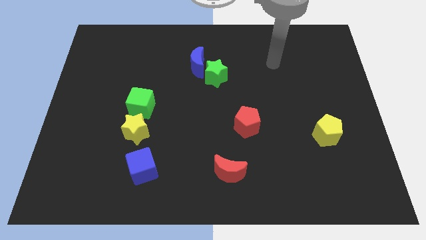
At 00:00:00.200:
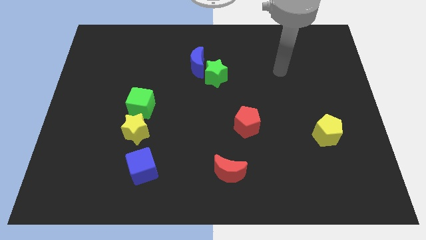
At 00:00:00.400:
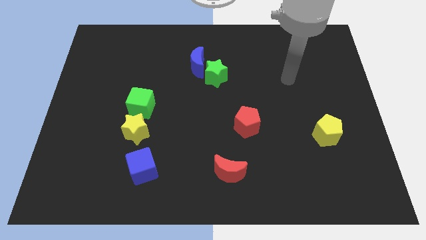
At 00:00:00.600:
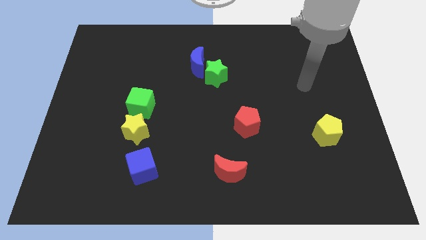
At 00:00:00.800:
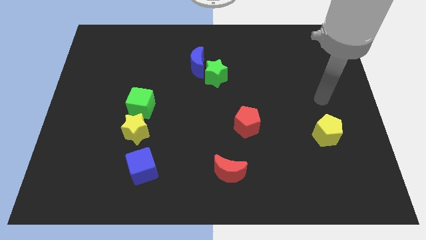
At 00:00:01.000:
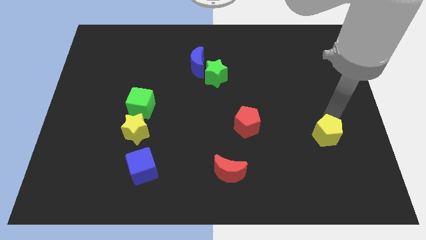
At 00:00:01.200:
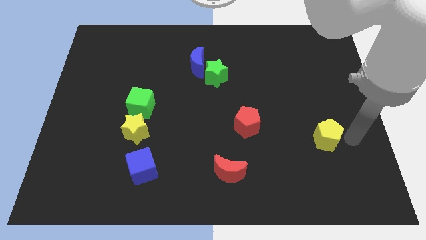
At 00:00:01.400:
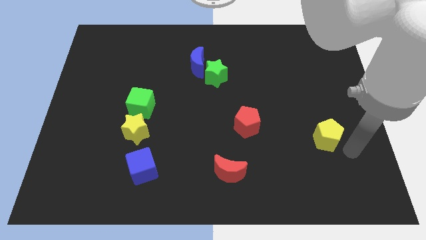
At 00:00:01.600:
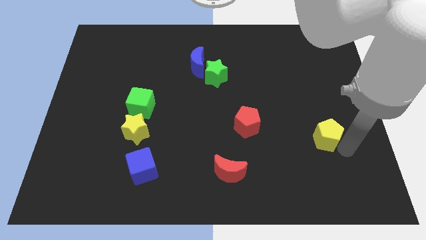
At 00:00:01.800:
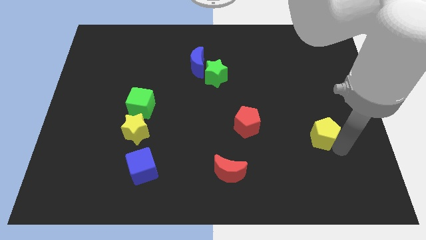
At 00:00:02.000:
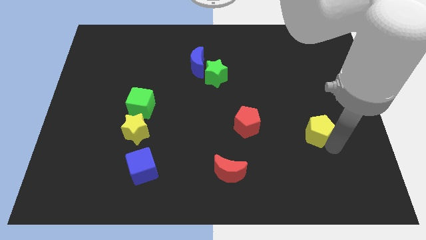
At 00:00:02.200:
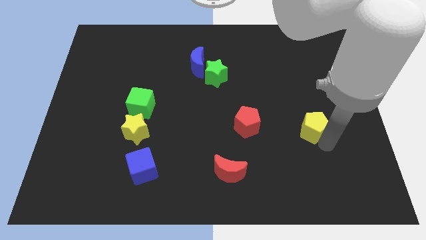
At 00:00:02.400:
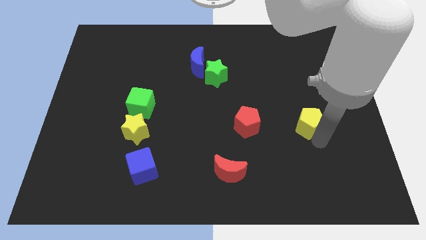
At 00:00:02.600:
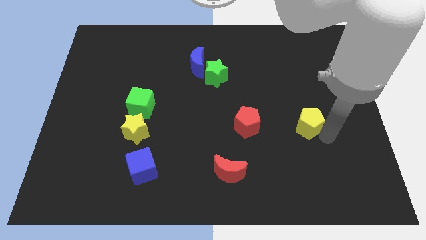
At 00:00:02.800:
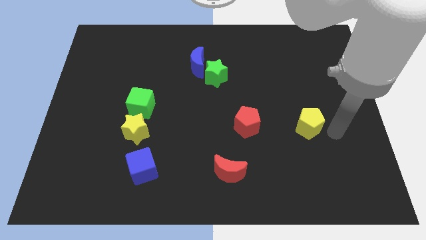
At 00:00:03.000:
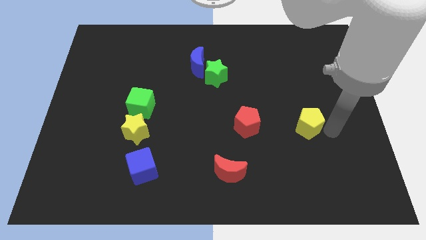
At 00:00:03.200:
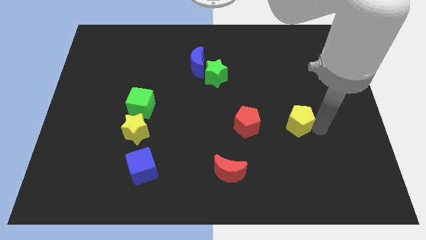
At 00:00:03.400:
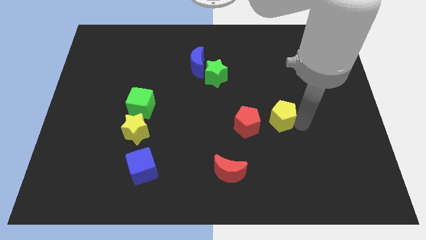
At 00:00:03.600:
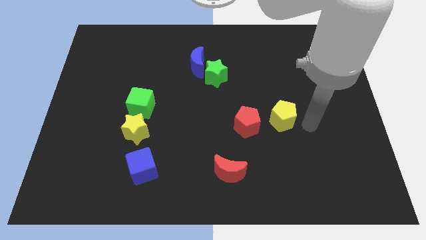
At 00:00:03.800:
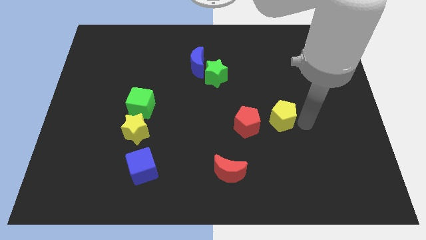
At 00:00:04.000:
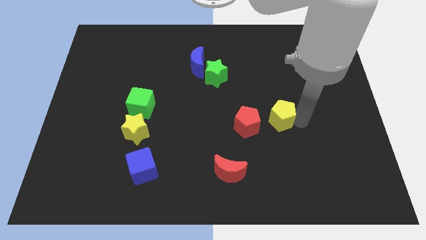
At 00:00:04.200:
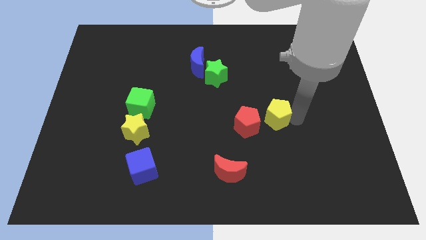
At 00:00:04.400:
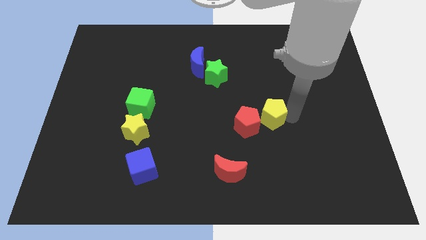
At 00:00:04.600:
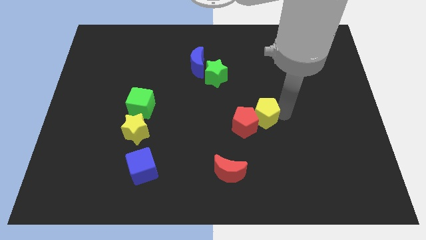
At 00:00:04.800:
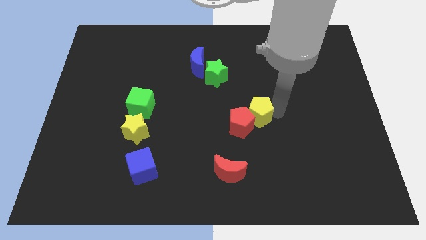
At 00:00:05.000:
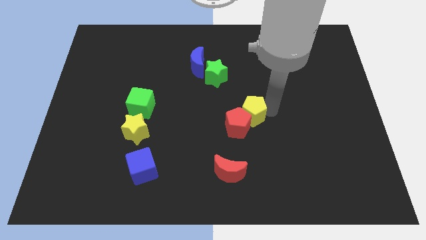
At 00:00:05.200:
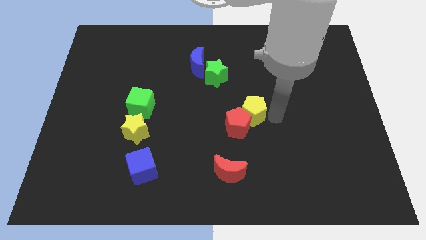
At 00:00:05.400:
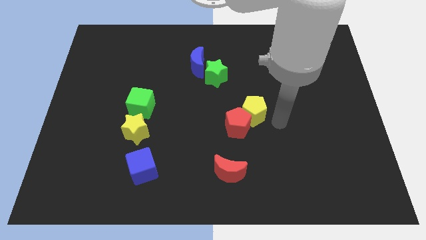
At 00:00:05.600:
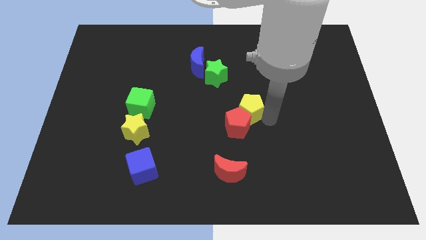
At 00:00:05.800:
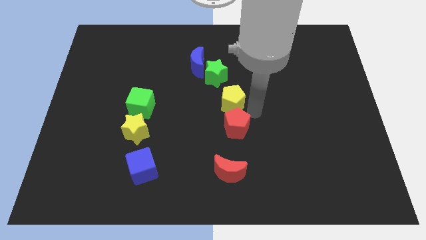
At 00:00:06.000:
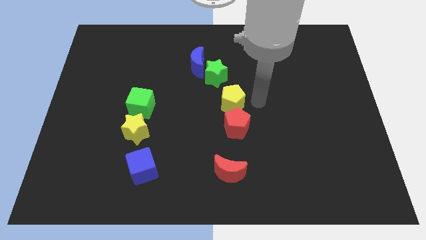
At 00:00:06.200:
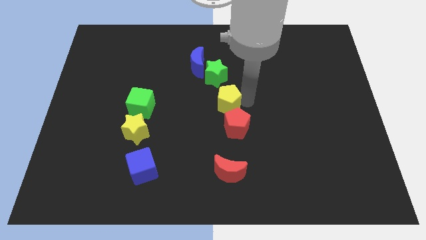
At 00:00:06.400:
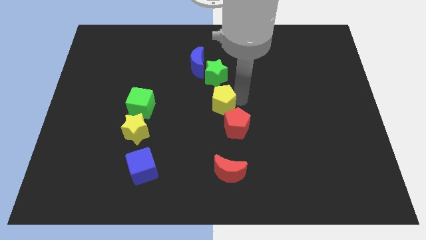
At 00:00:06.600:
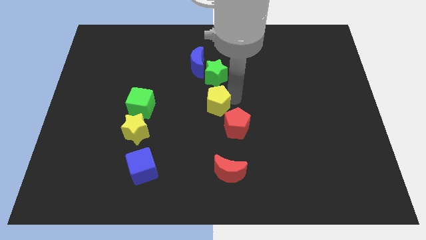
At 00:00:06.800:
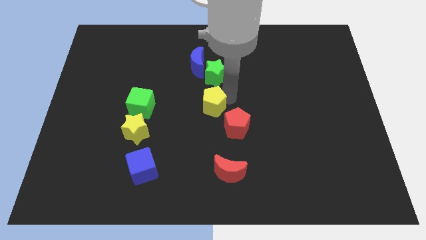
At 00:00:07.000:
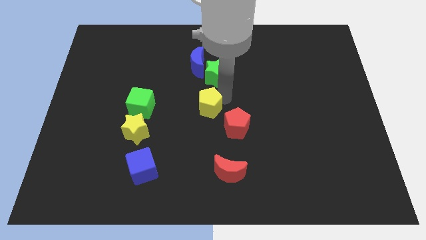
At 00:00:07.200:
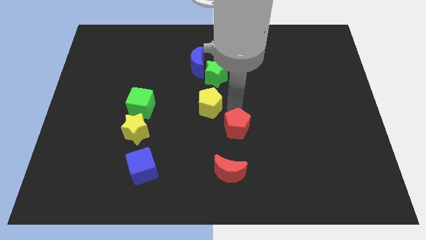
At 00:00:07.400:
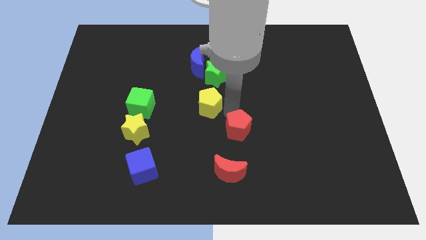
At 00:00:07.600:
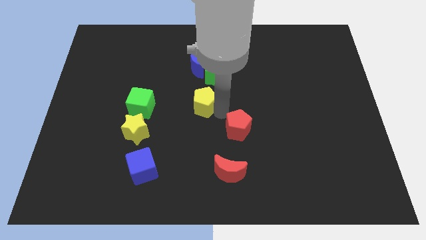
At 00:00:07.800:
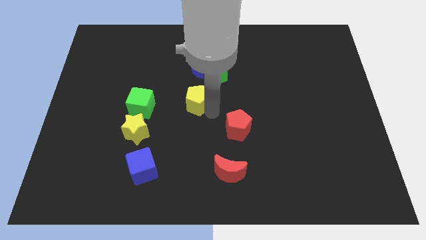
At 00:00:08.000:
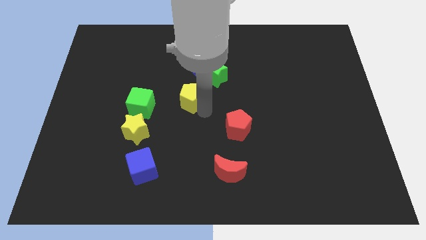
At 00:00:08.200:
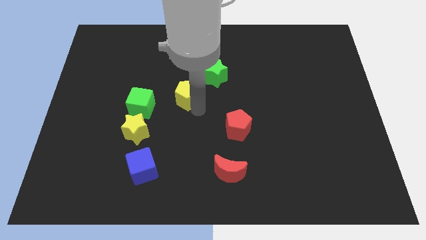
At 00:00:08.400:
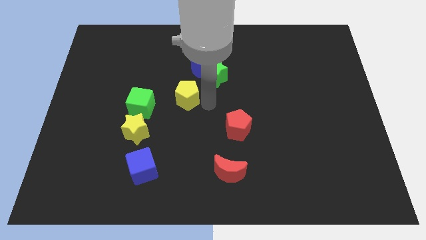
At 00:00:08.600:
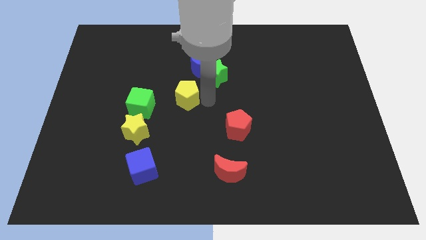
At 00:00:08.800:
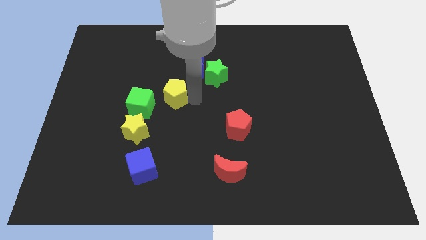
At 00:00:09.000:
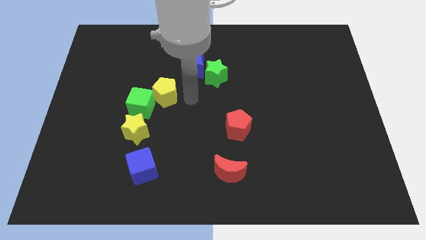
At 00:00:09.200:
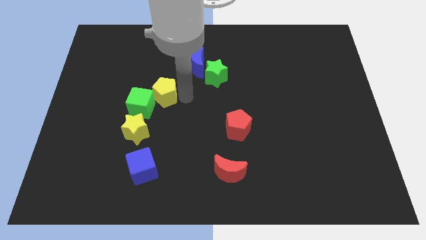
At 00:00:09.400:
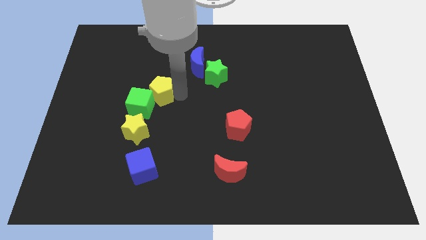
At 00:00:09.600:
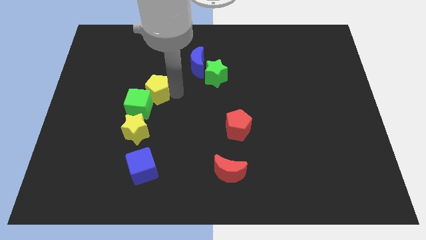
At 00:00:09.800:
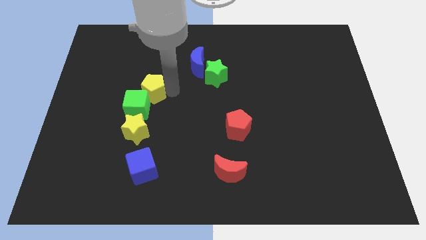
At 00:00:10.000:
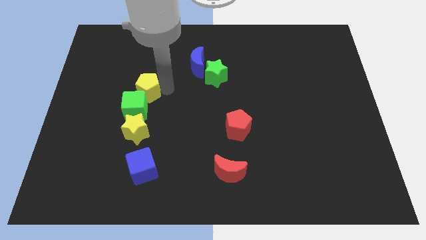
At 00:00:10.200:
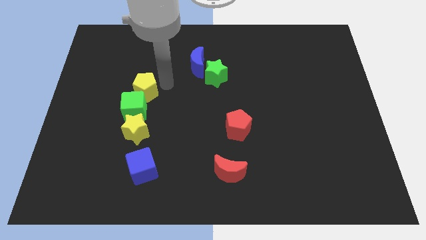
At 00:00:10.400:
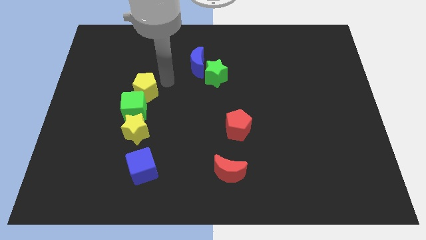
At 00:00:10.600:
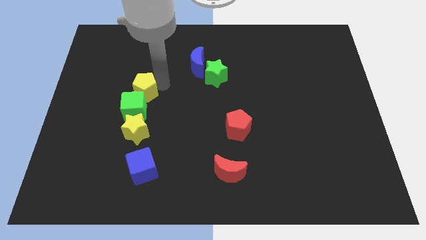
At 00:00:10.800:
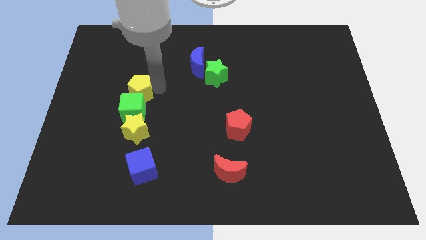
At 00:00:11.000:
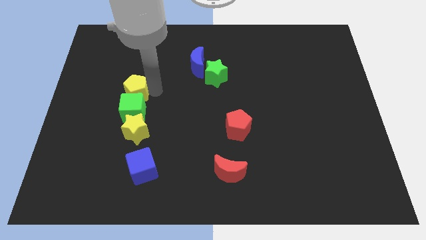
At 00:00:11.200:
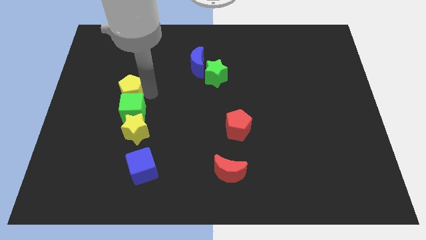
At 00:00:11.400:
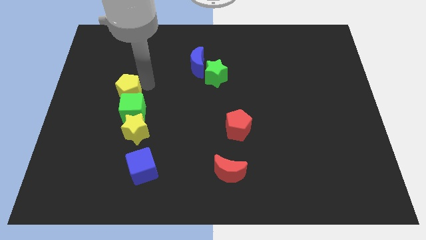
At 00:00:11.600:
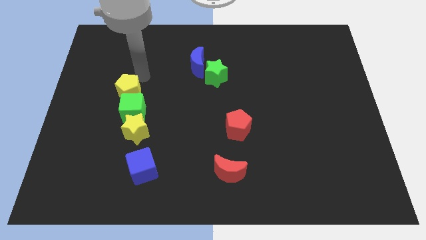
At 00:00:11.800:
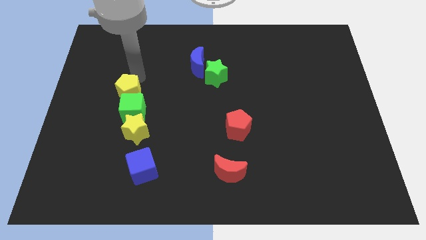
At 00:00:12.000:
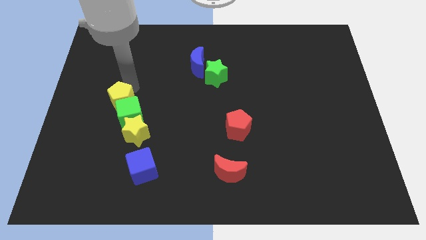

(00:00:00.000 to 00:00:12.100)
push the yellow pentagon to the top left of the yellow star
